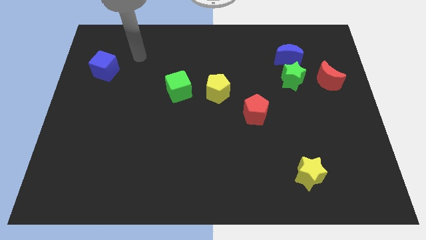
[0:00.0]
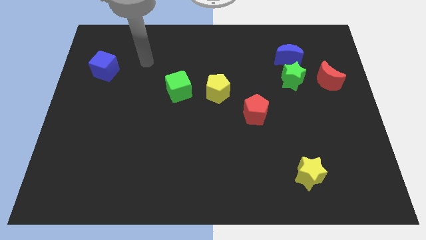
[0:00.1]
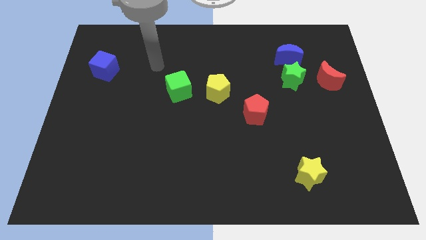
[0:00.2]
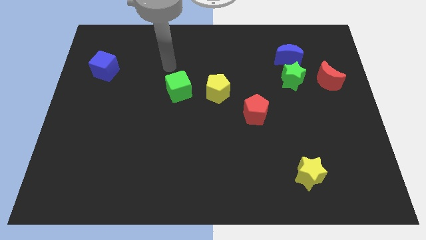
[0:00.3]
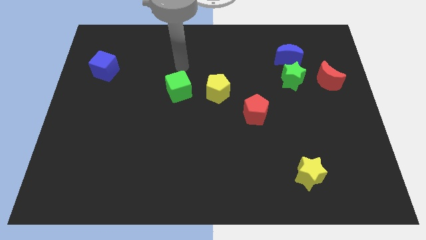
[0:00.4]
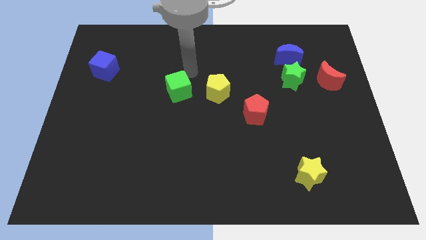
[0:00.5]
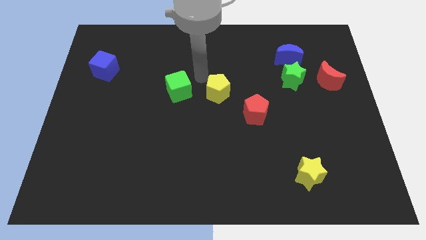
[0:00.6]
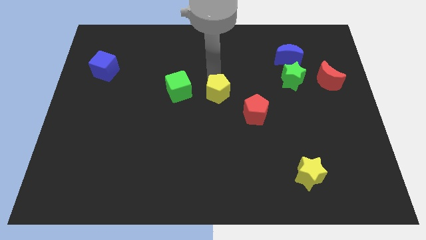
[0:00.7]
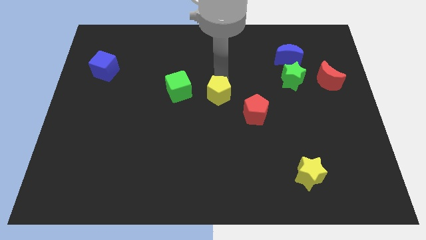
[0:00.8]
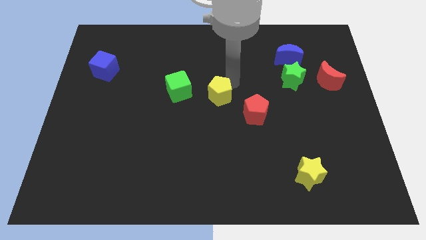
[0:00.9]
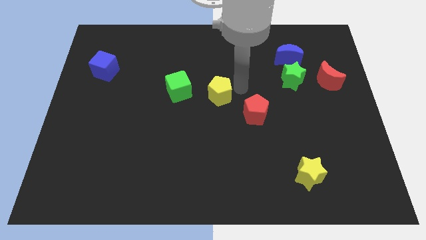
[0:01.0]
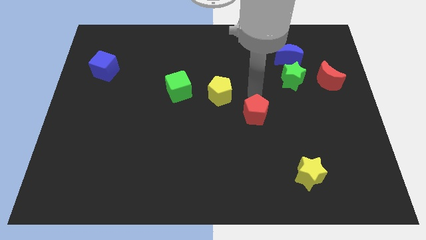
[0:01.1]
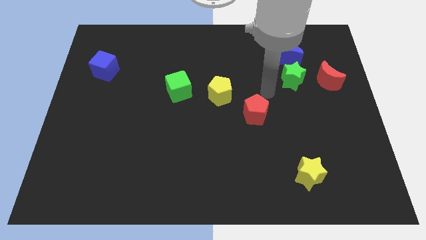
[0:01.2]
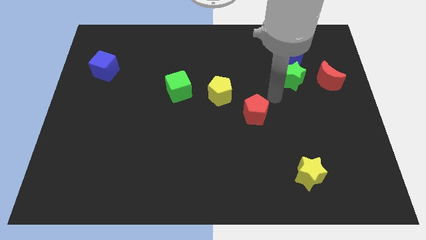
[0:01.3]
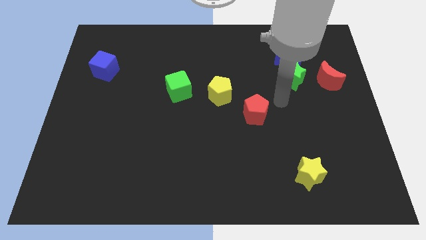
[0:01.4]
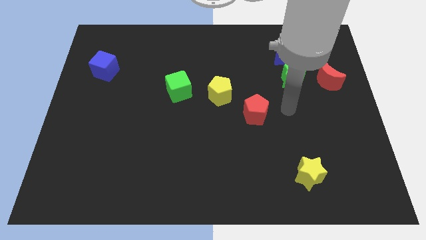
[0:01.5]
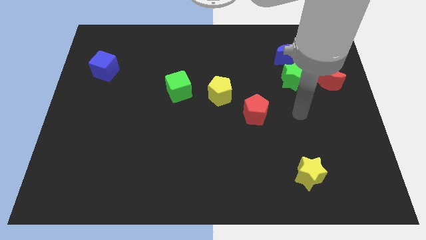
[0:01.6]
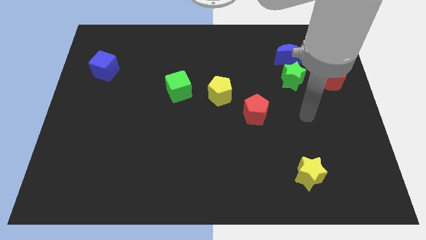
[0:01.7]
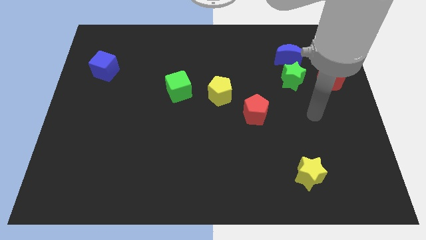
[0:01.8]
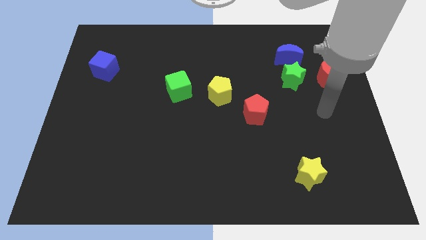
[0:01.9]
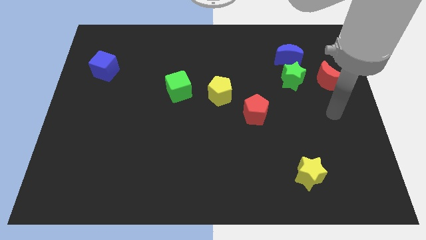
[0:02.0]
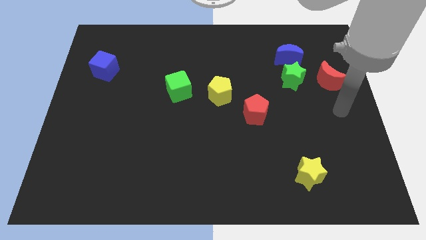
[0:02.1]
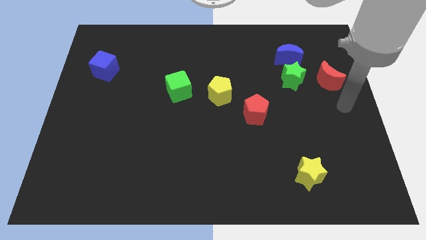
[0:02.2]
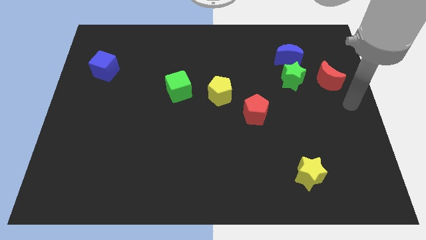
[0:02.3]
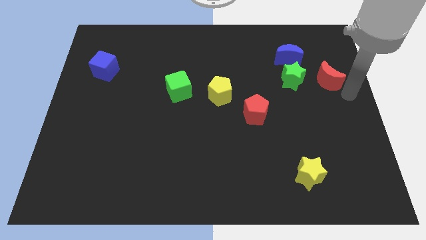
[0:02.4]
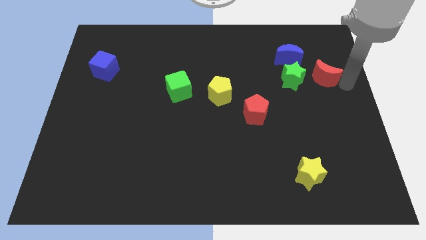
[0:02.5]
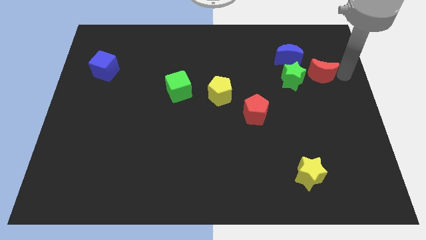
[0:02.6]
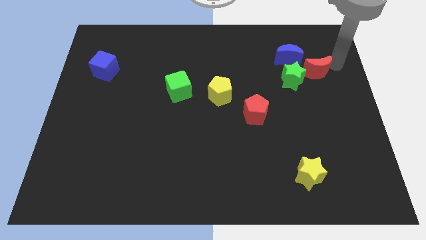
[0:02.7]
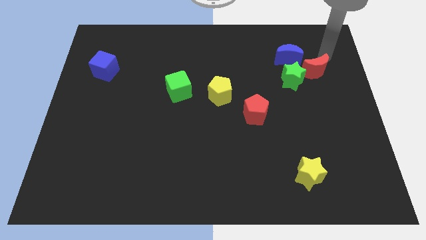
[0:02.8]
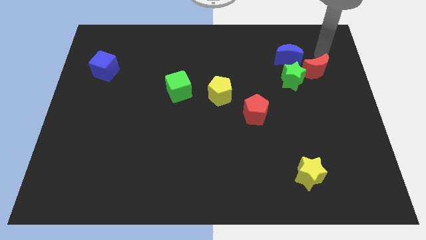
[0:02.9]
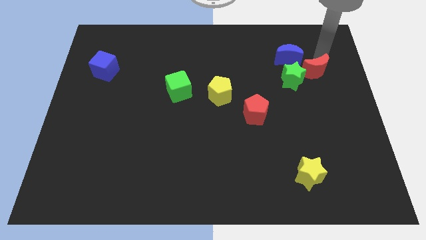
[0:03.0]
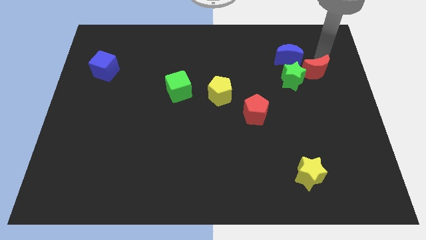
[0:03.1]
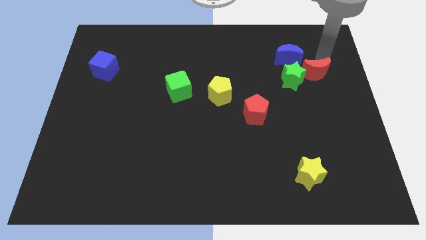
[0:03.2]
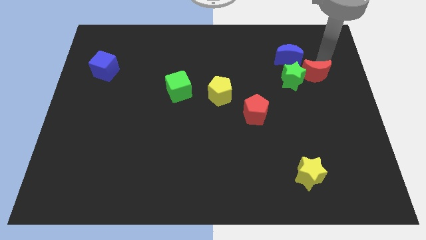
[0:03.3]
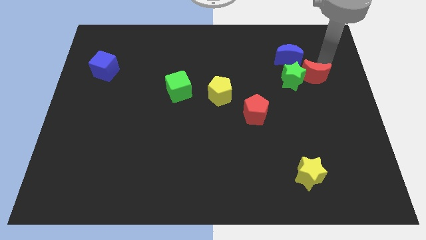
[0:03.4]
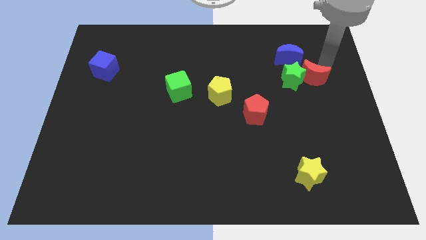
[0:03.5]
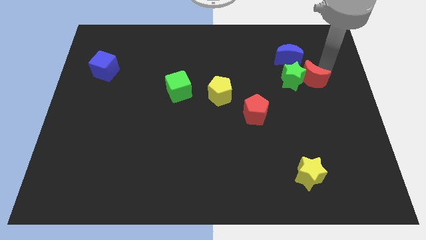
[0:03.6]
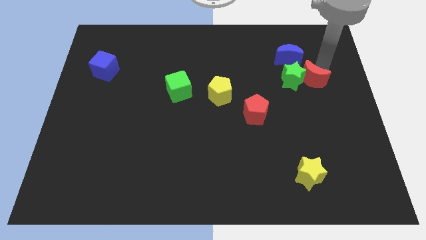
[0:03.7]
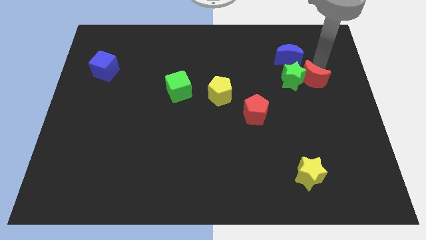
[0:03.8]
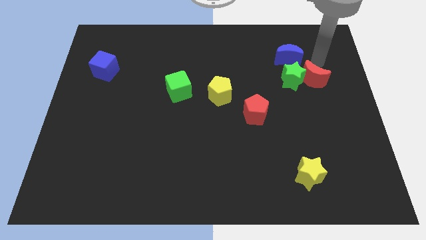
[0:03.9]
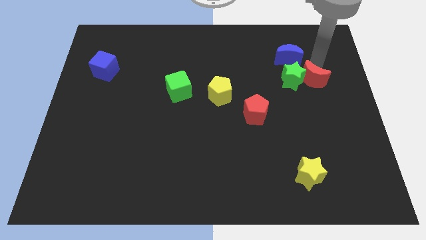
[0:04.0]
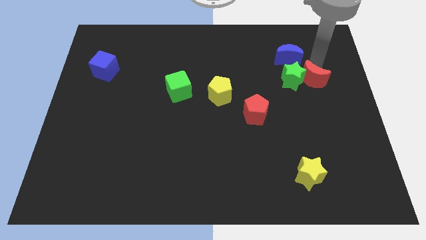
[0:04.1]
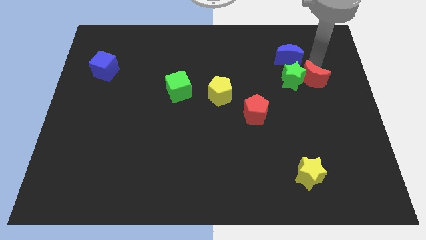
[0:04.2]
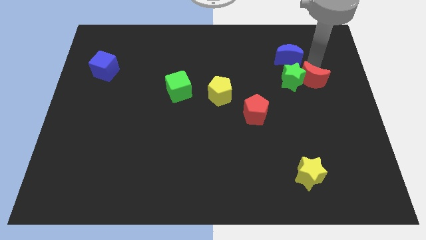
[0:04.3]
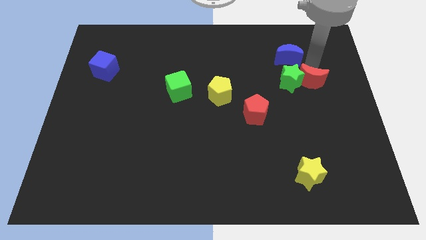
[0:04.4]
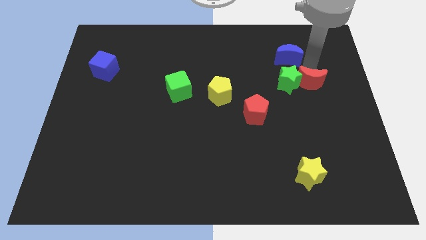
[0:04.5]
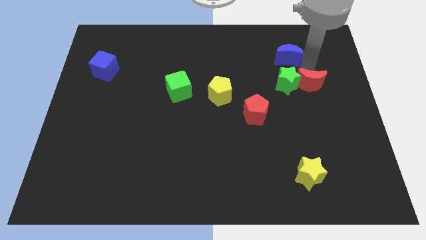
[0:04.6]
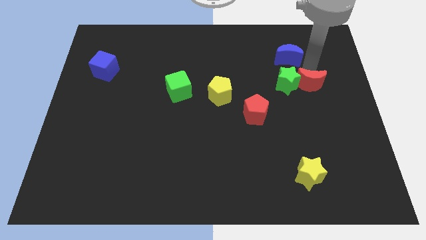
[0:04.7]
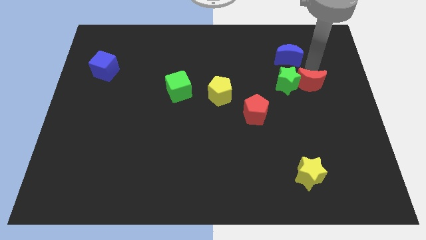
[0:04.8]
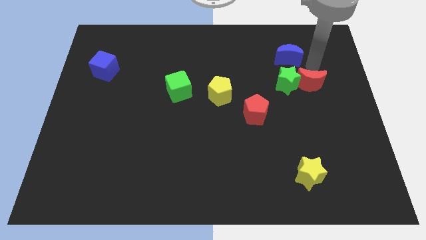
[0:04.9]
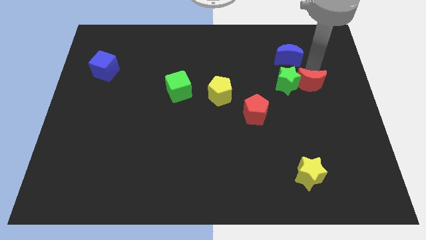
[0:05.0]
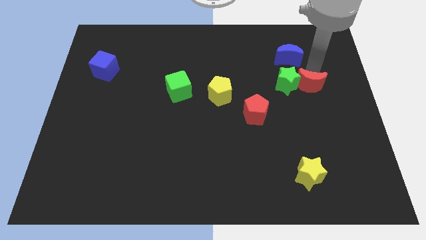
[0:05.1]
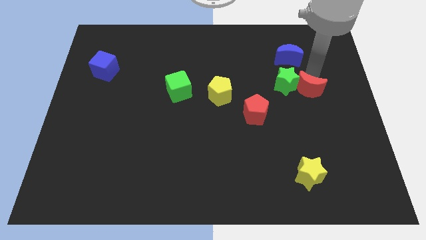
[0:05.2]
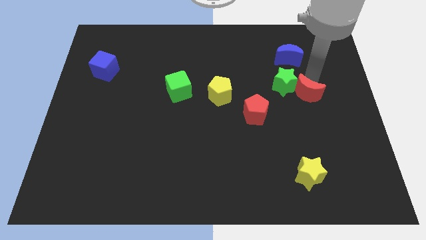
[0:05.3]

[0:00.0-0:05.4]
slightly slide the red moon down and left

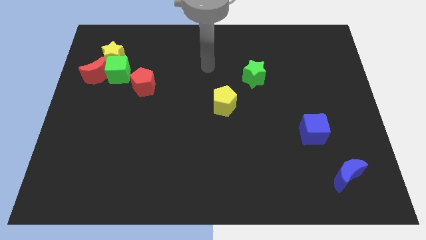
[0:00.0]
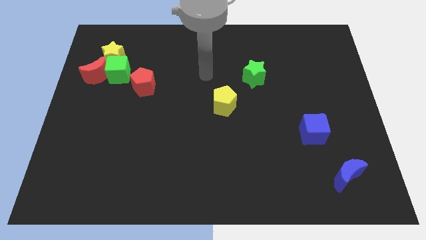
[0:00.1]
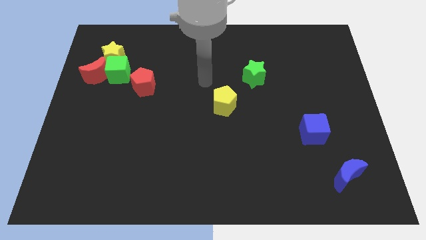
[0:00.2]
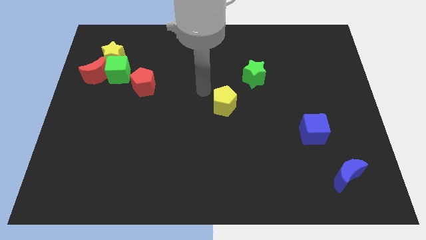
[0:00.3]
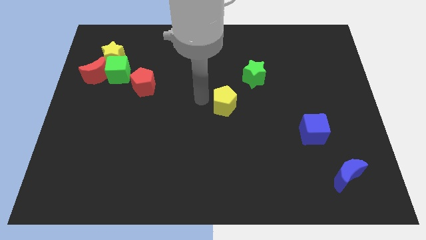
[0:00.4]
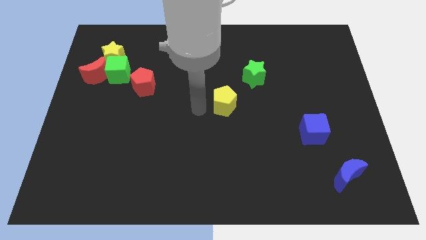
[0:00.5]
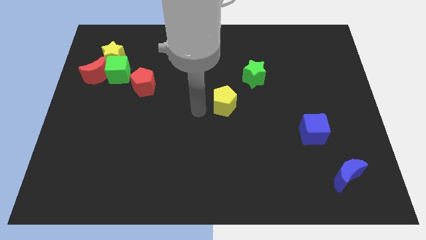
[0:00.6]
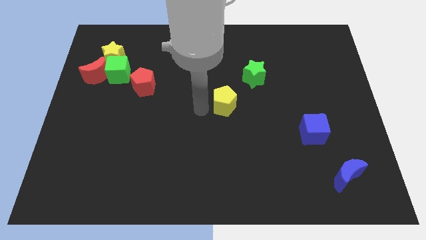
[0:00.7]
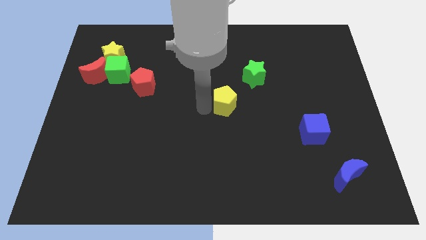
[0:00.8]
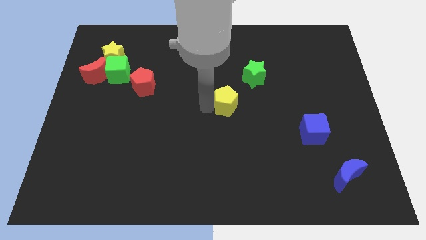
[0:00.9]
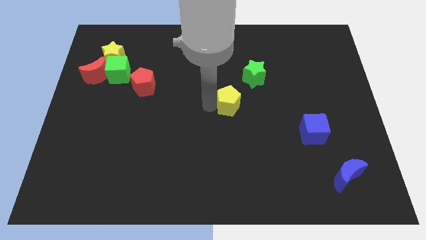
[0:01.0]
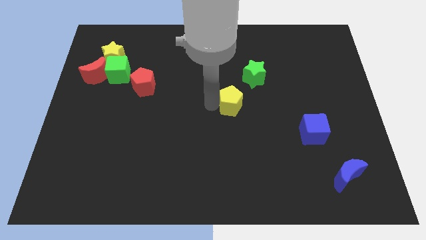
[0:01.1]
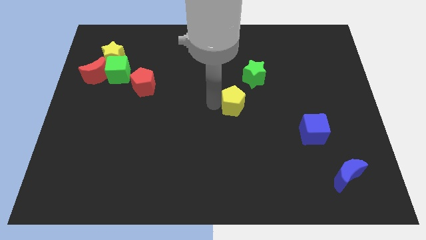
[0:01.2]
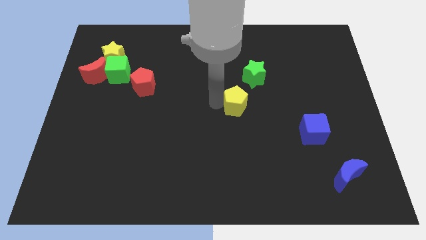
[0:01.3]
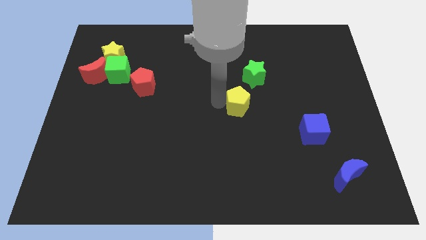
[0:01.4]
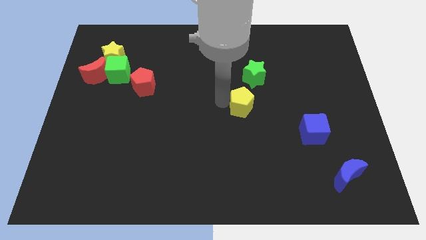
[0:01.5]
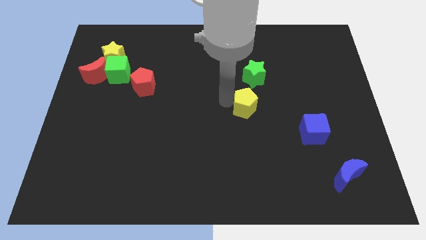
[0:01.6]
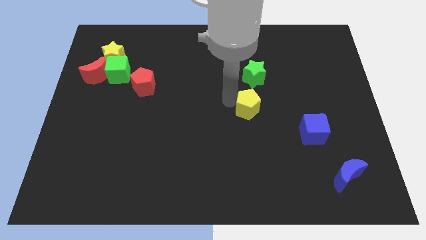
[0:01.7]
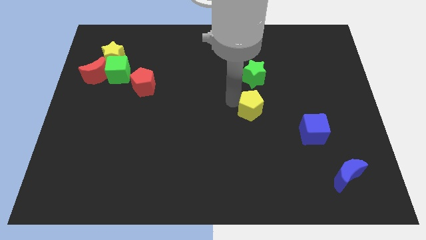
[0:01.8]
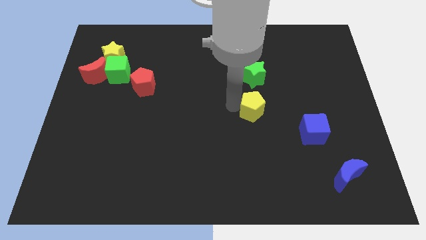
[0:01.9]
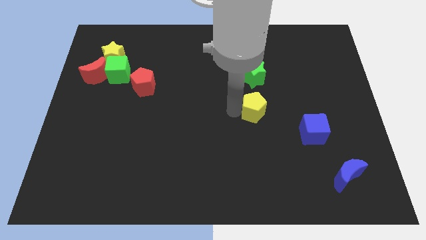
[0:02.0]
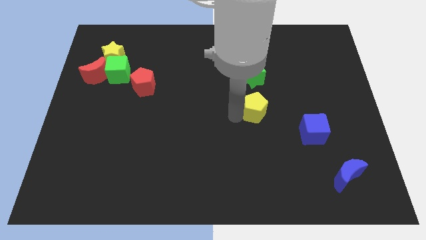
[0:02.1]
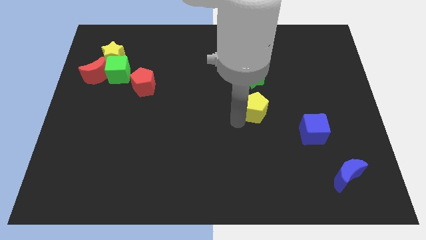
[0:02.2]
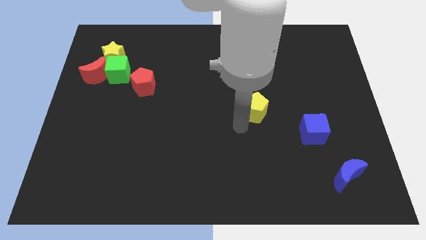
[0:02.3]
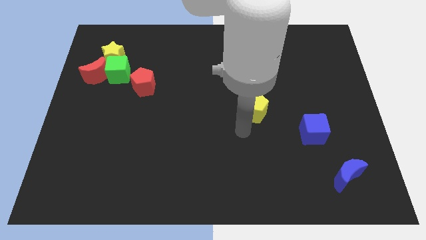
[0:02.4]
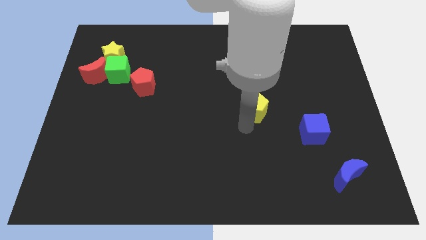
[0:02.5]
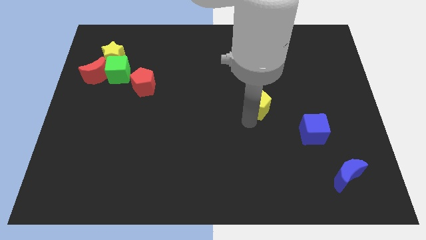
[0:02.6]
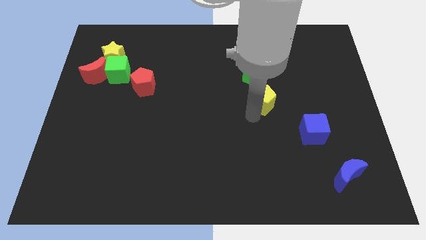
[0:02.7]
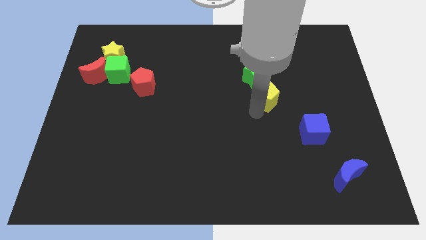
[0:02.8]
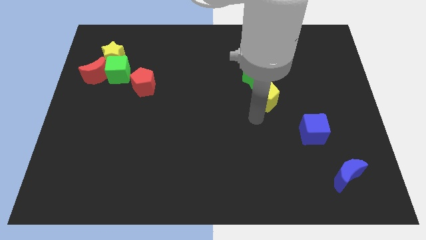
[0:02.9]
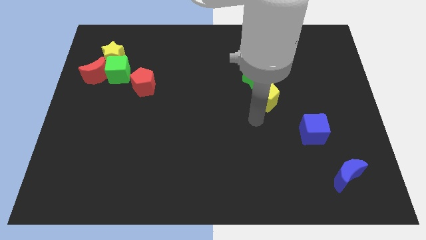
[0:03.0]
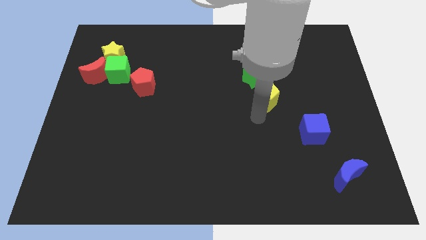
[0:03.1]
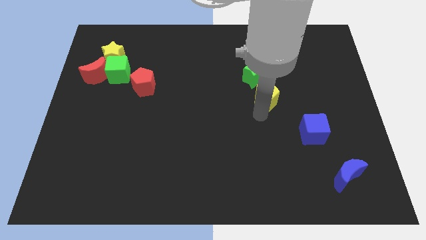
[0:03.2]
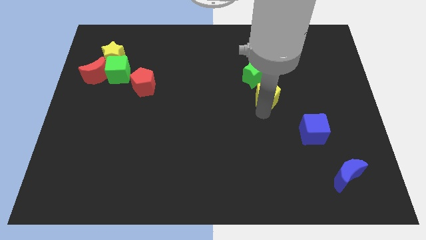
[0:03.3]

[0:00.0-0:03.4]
slide the yellow pentagon upwards and then right slightly
